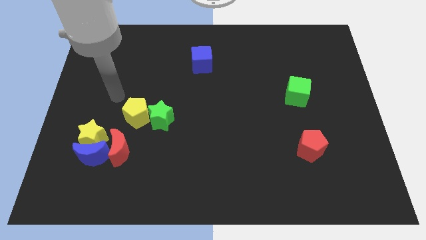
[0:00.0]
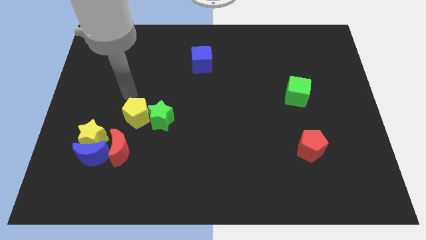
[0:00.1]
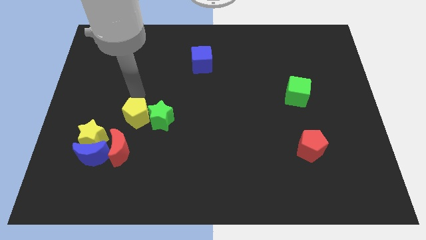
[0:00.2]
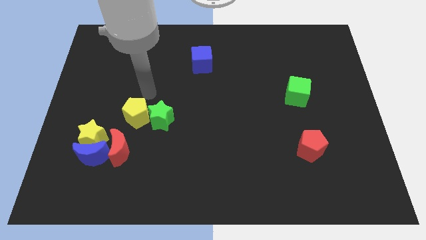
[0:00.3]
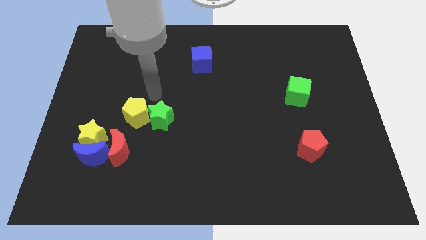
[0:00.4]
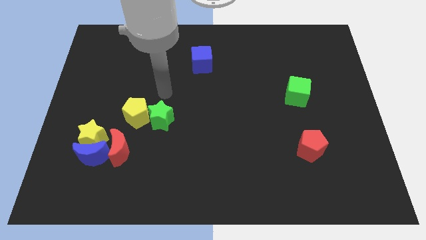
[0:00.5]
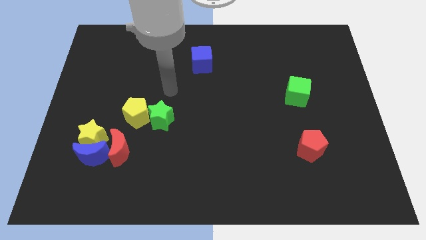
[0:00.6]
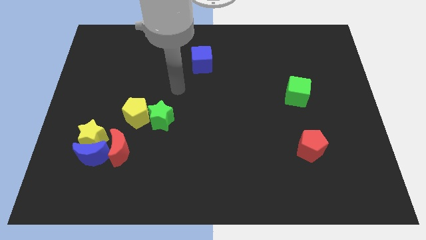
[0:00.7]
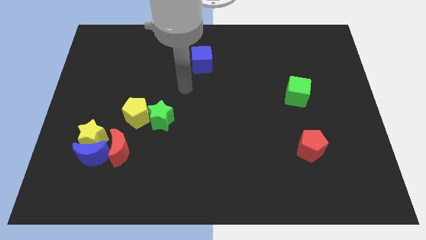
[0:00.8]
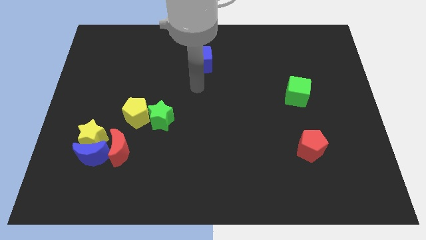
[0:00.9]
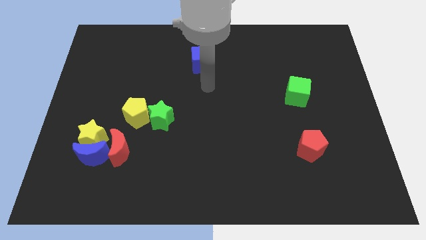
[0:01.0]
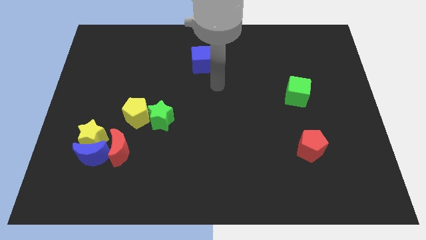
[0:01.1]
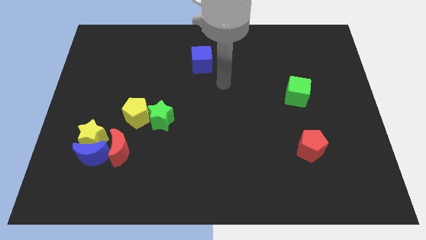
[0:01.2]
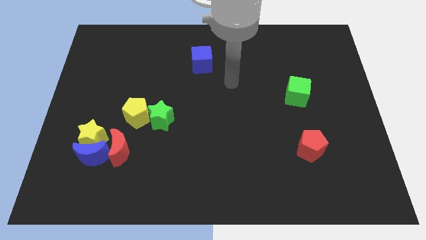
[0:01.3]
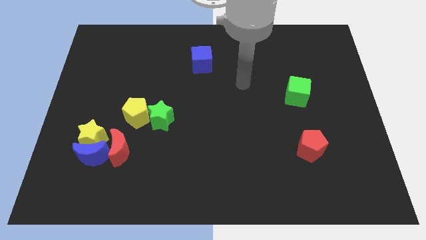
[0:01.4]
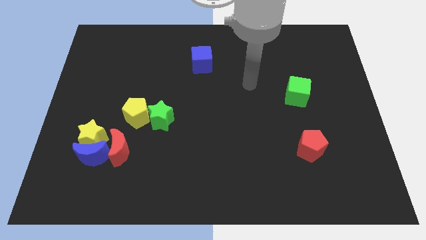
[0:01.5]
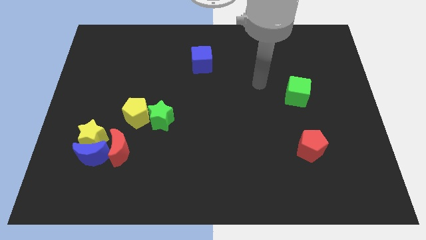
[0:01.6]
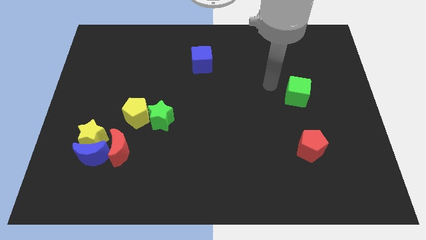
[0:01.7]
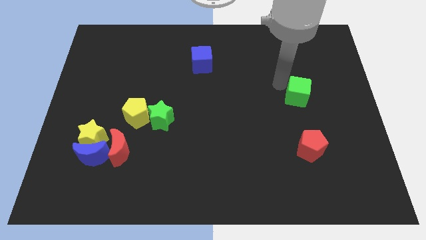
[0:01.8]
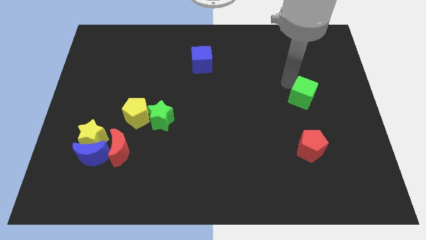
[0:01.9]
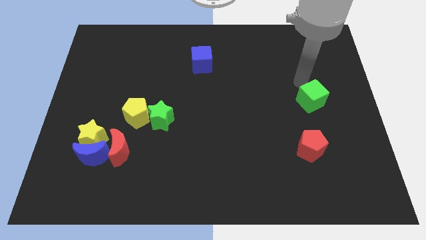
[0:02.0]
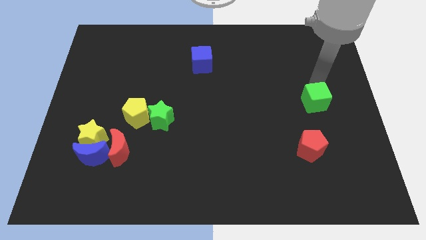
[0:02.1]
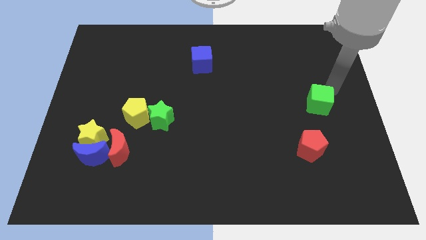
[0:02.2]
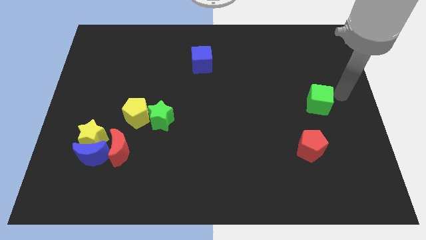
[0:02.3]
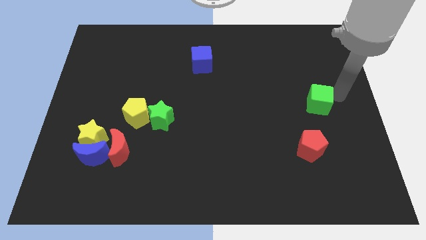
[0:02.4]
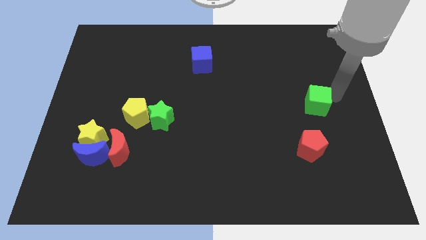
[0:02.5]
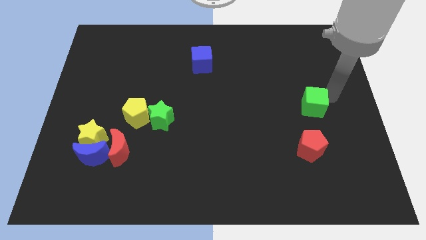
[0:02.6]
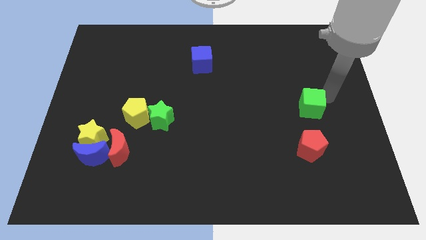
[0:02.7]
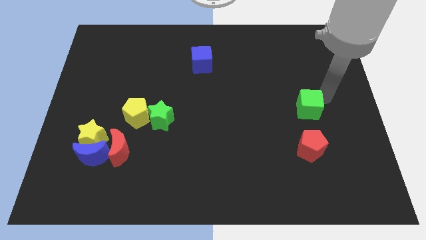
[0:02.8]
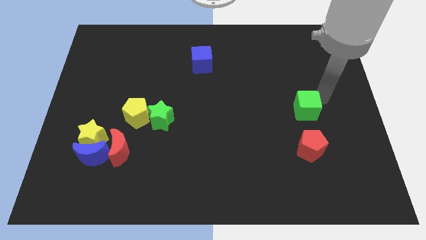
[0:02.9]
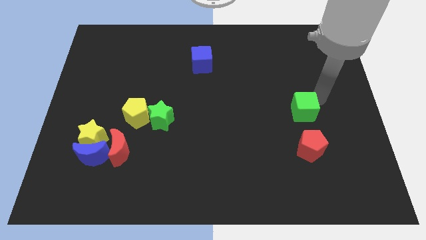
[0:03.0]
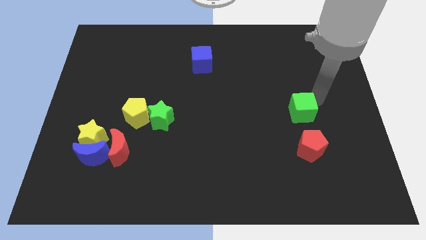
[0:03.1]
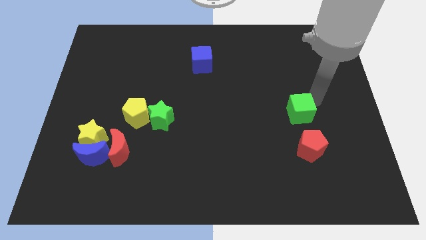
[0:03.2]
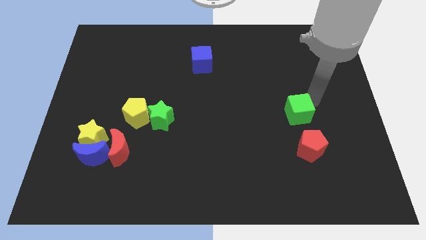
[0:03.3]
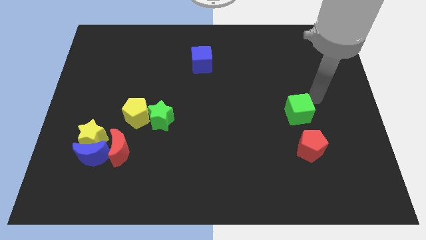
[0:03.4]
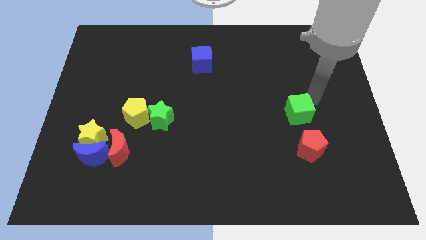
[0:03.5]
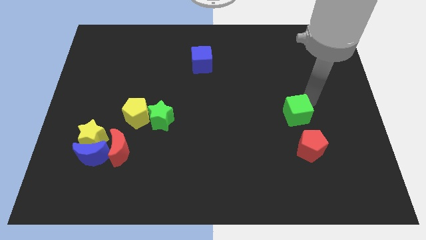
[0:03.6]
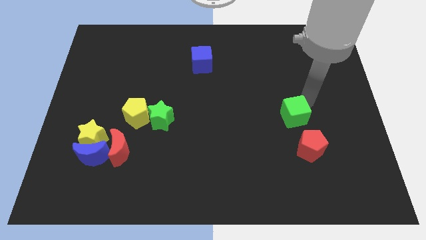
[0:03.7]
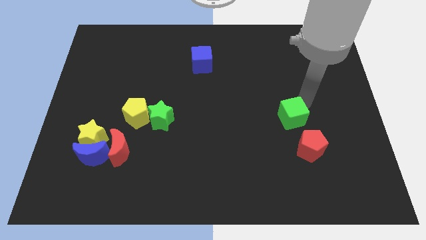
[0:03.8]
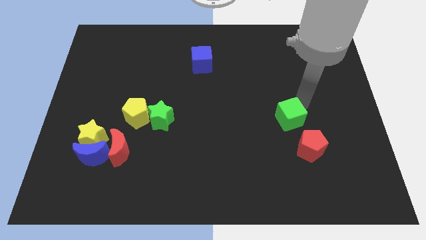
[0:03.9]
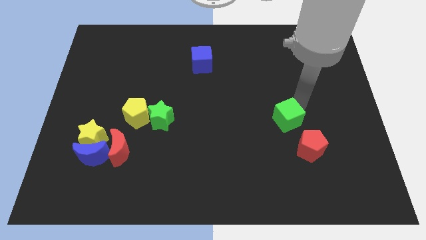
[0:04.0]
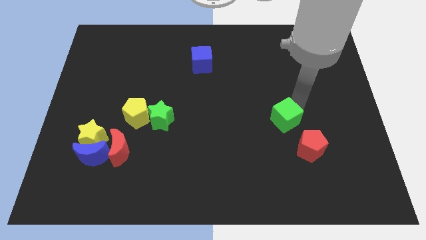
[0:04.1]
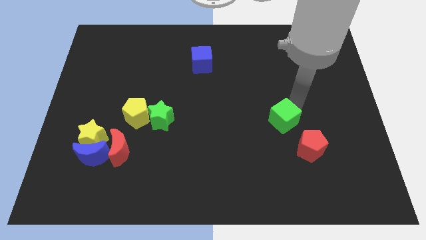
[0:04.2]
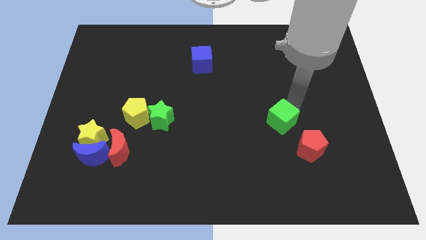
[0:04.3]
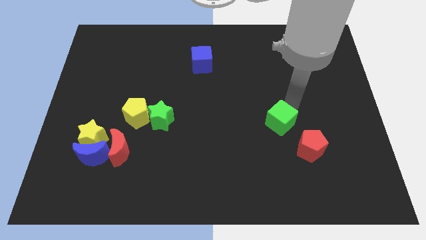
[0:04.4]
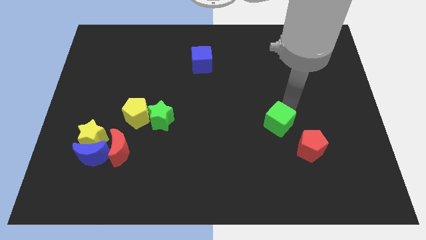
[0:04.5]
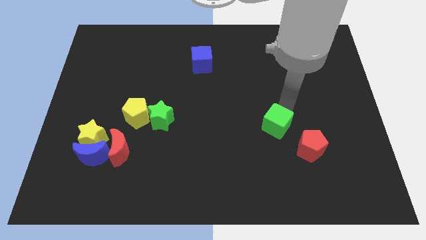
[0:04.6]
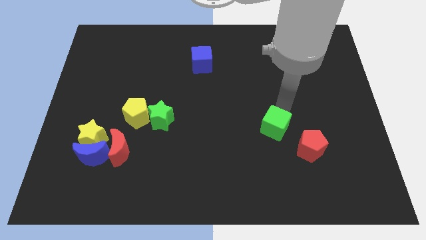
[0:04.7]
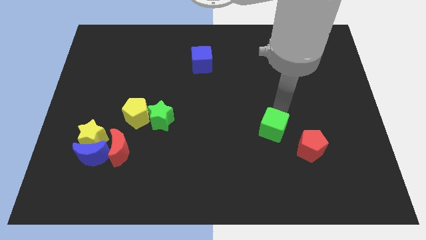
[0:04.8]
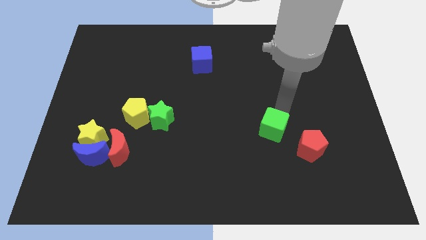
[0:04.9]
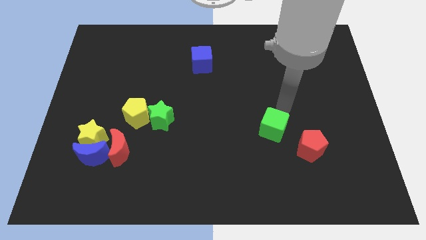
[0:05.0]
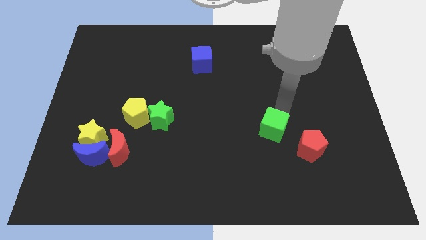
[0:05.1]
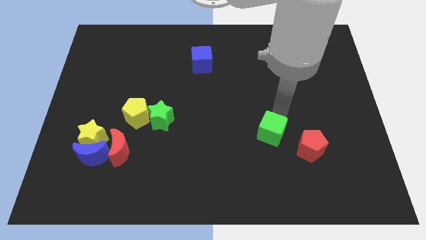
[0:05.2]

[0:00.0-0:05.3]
slide the green cube to the left of the red pentagon

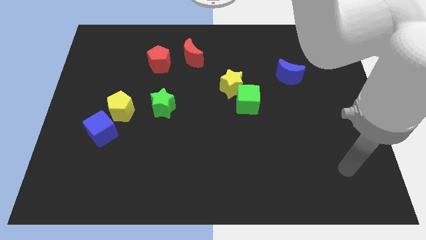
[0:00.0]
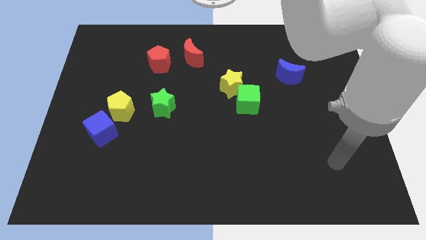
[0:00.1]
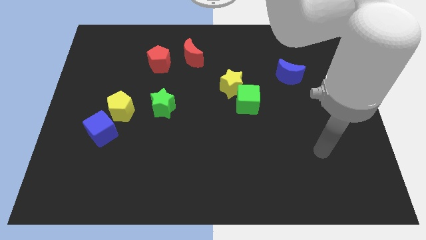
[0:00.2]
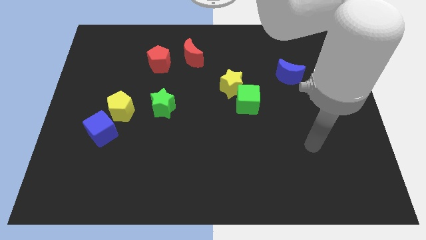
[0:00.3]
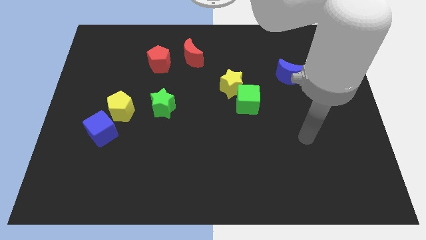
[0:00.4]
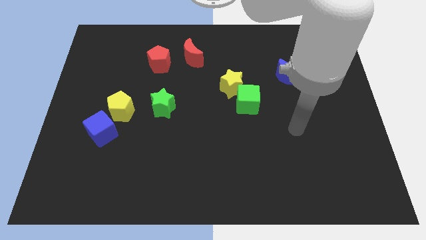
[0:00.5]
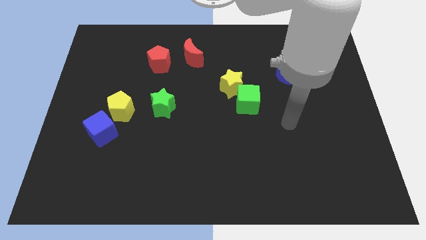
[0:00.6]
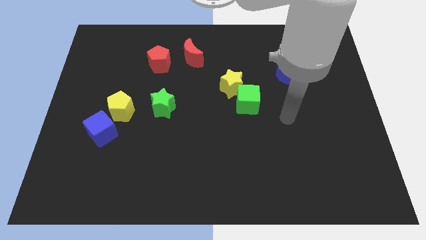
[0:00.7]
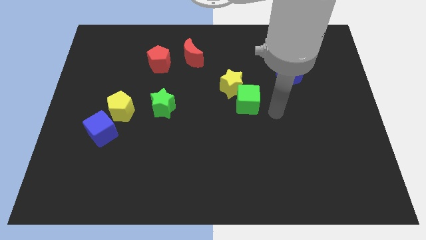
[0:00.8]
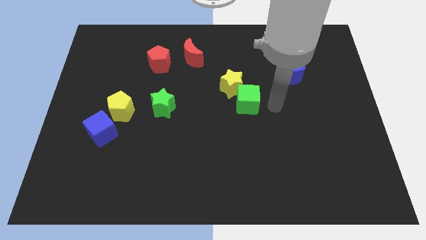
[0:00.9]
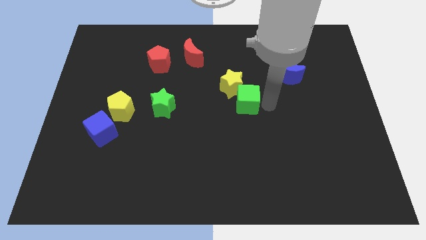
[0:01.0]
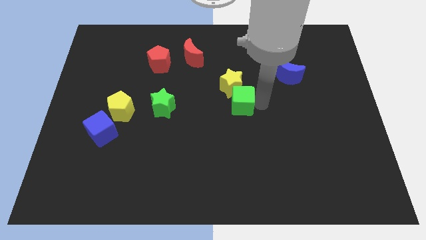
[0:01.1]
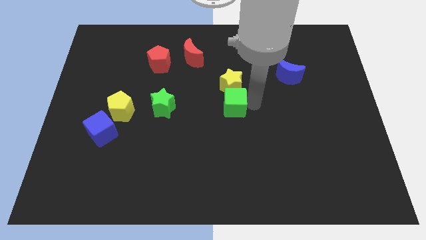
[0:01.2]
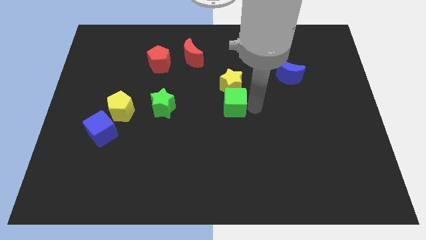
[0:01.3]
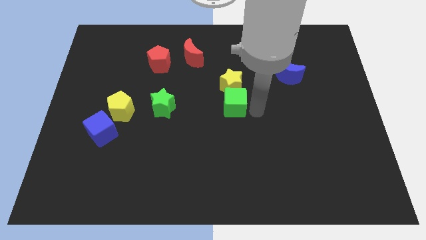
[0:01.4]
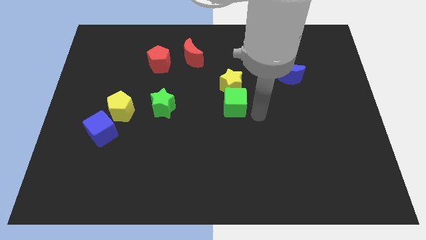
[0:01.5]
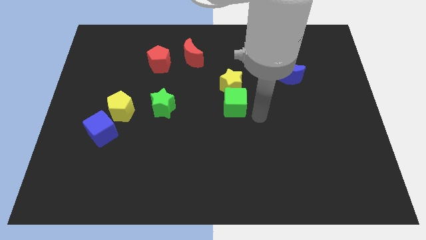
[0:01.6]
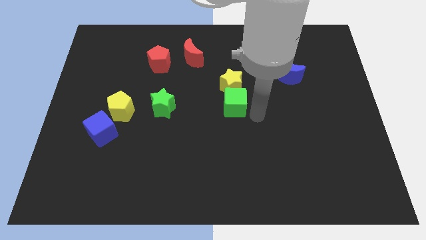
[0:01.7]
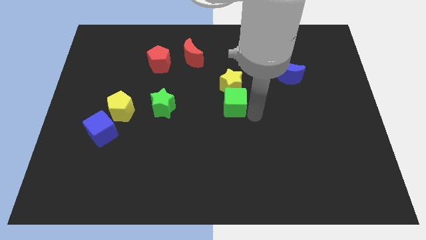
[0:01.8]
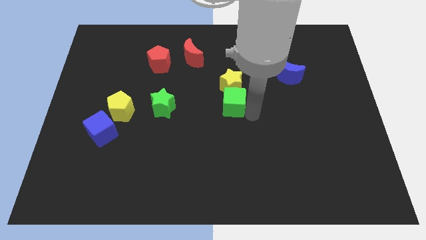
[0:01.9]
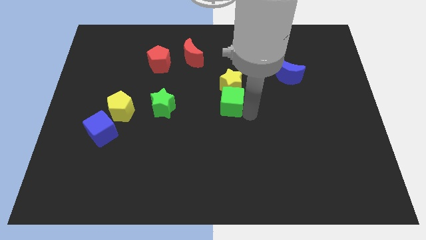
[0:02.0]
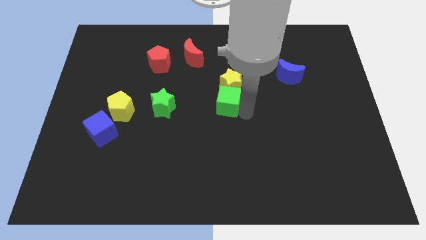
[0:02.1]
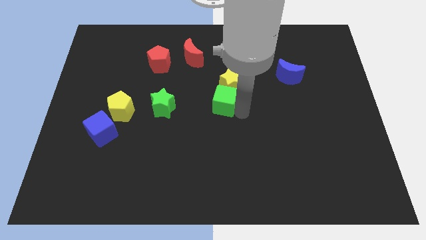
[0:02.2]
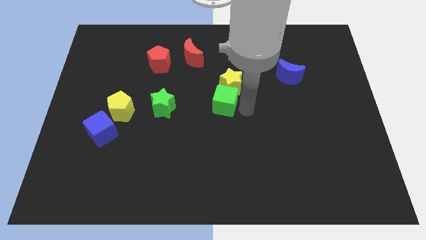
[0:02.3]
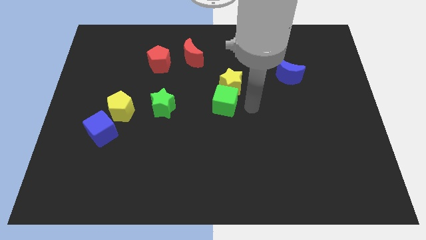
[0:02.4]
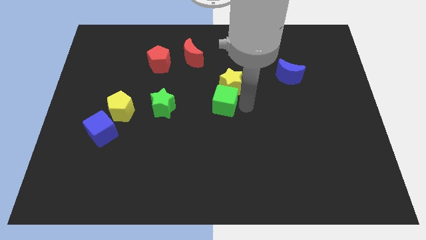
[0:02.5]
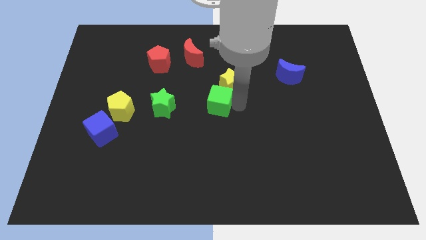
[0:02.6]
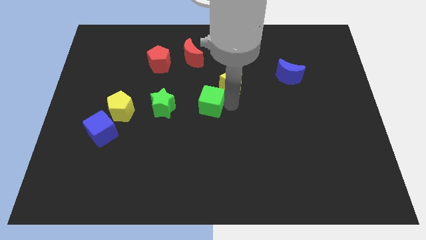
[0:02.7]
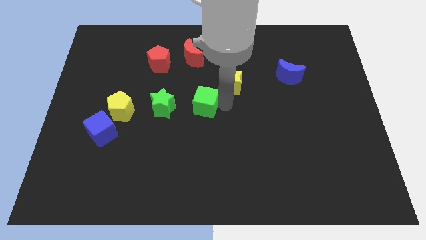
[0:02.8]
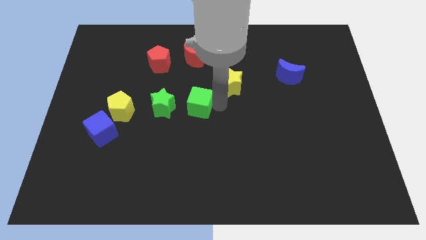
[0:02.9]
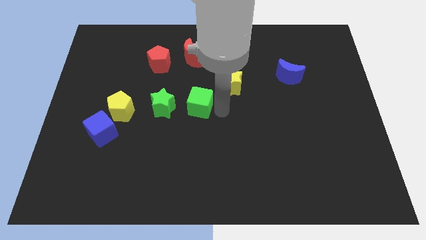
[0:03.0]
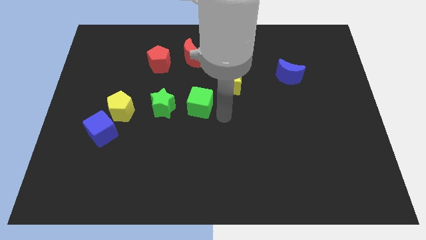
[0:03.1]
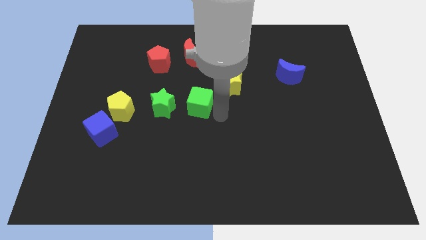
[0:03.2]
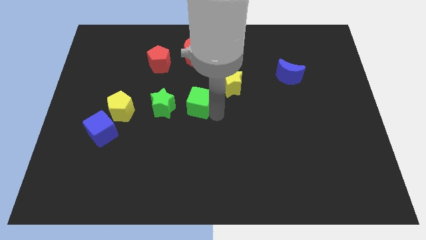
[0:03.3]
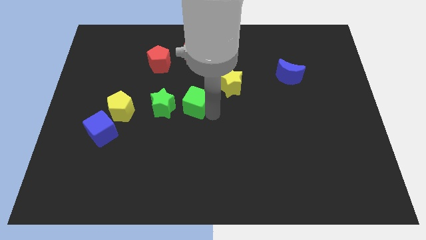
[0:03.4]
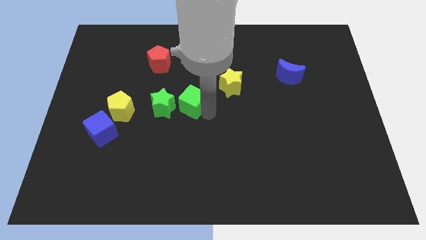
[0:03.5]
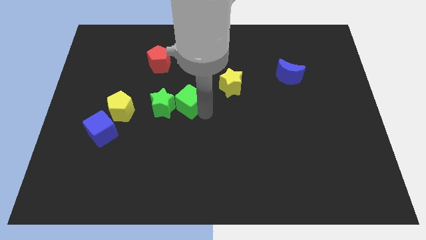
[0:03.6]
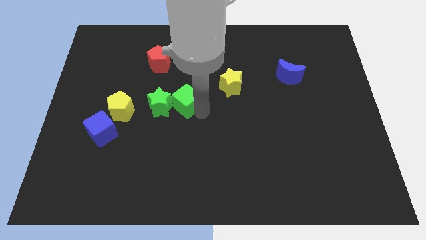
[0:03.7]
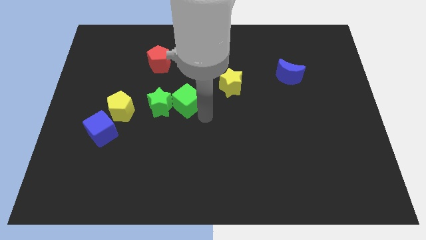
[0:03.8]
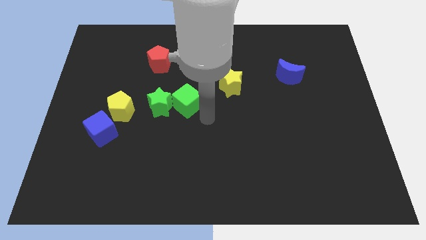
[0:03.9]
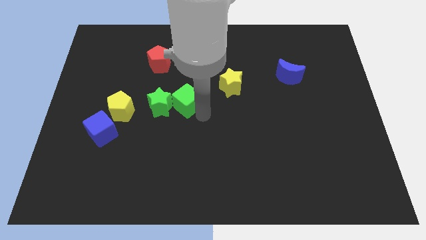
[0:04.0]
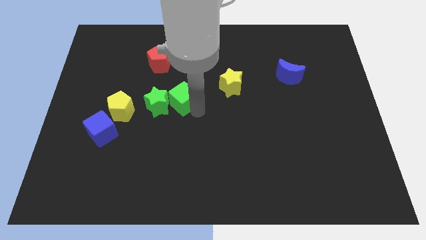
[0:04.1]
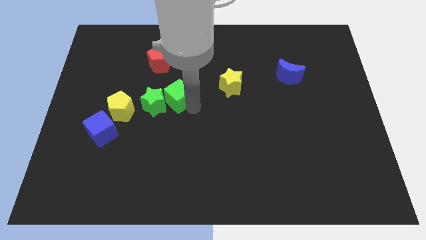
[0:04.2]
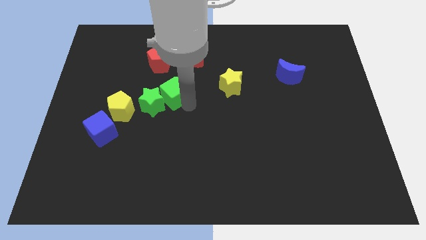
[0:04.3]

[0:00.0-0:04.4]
put the green cube to the bottom side of the red pentagon
